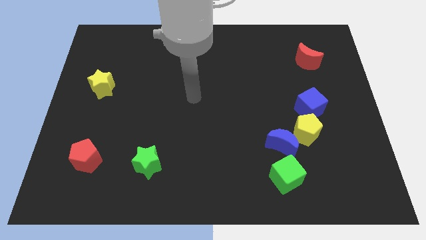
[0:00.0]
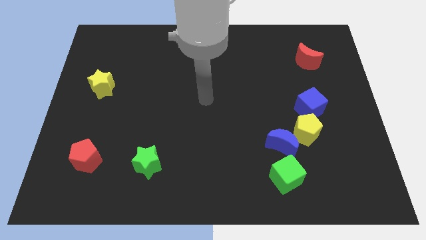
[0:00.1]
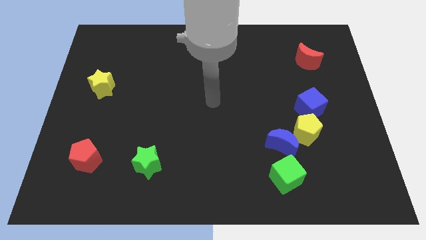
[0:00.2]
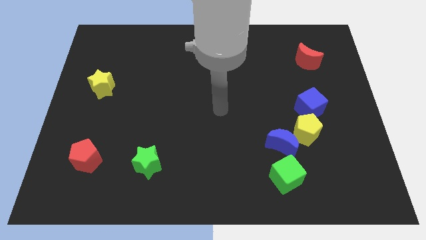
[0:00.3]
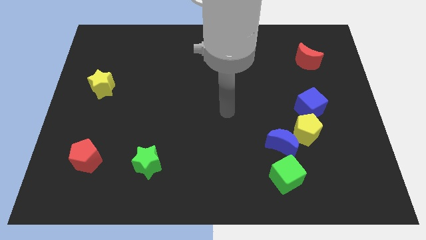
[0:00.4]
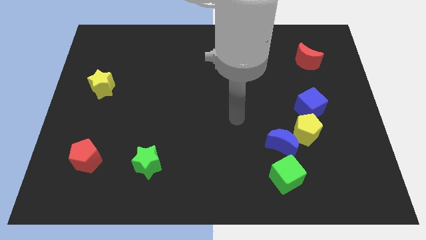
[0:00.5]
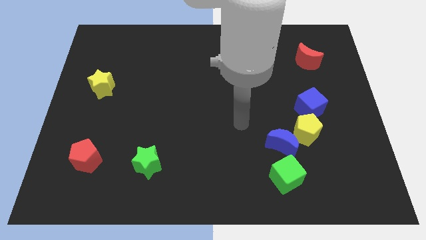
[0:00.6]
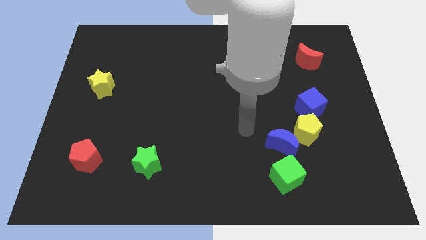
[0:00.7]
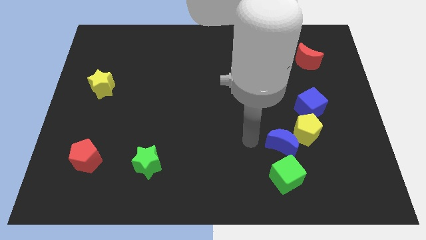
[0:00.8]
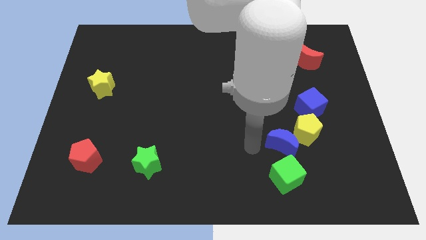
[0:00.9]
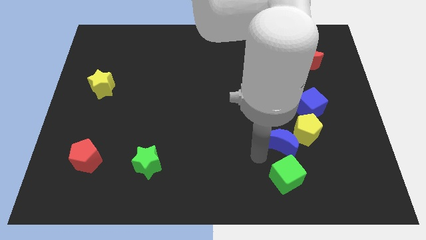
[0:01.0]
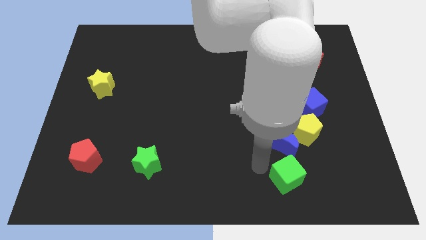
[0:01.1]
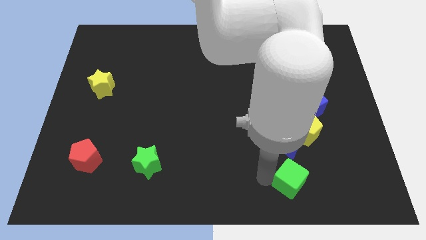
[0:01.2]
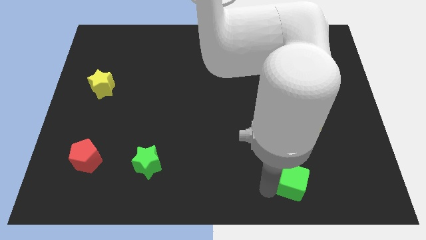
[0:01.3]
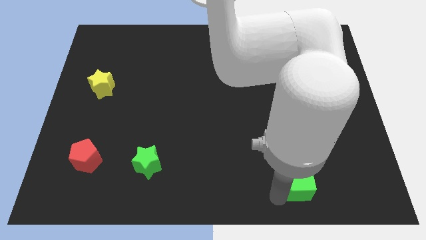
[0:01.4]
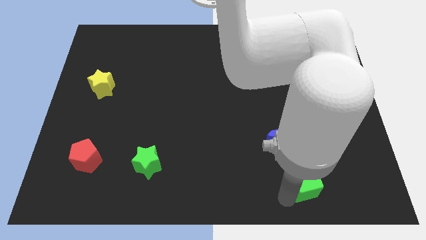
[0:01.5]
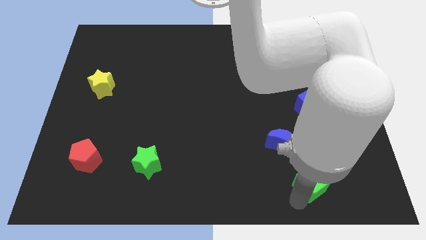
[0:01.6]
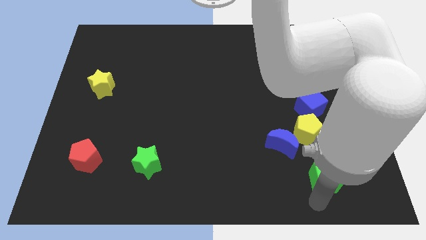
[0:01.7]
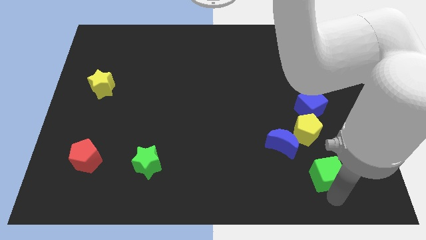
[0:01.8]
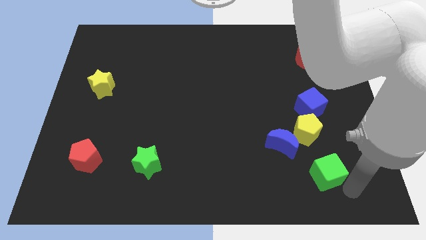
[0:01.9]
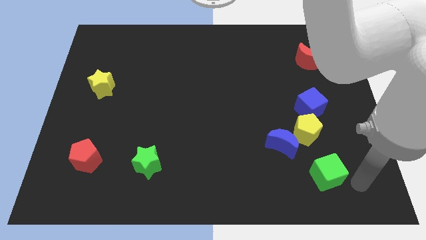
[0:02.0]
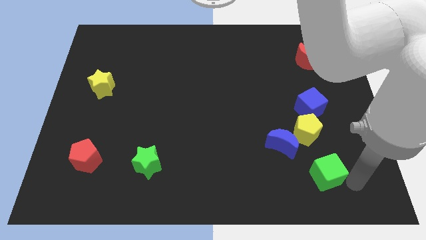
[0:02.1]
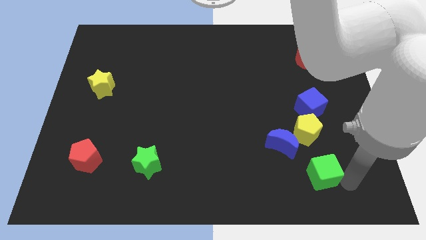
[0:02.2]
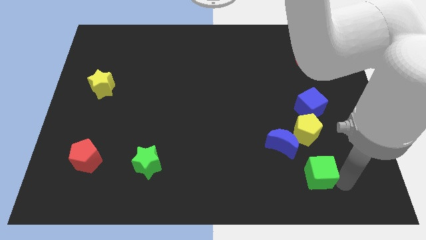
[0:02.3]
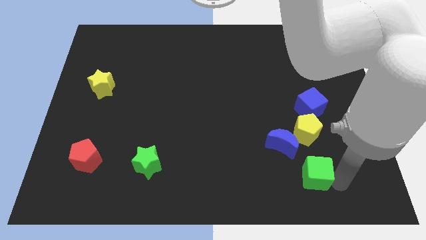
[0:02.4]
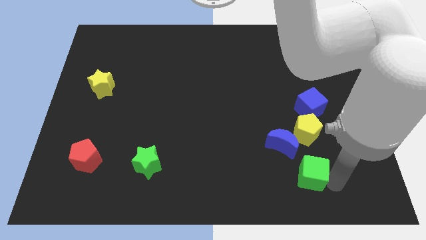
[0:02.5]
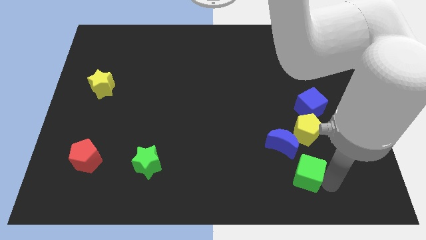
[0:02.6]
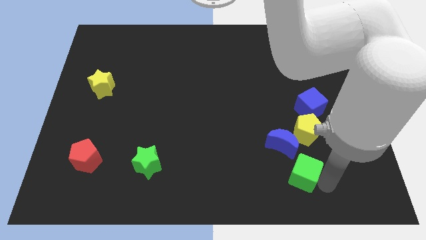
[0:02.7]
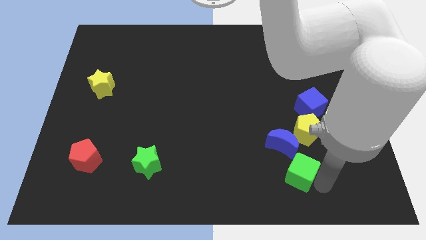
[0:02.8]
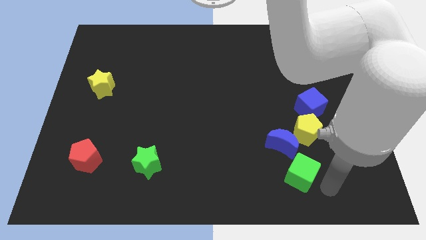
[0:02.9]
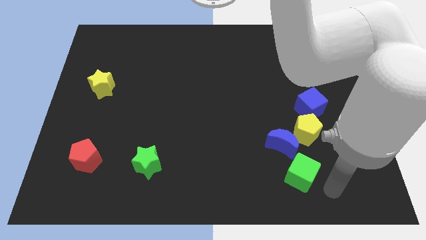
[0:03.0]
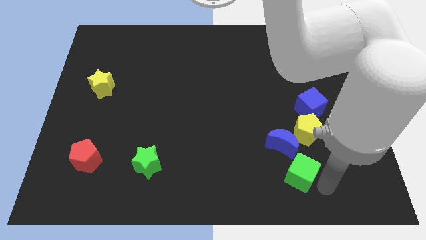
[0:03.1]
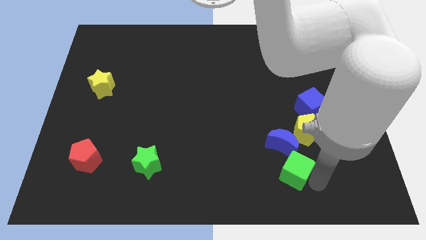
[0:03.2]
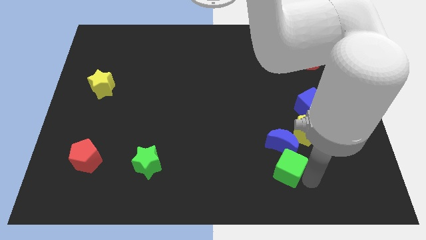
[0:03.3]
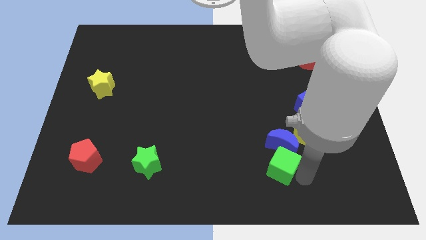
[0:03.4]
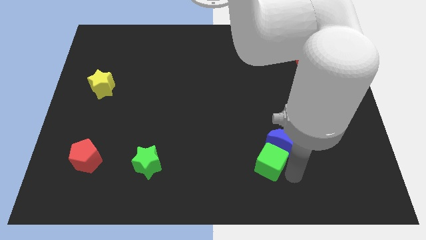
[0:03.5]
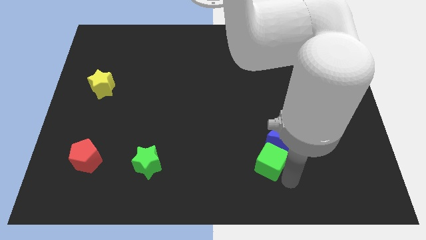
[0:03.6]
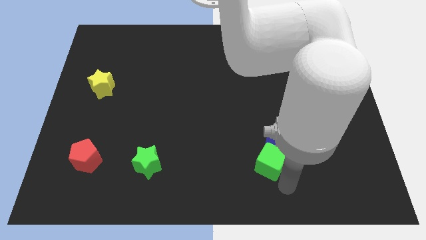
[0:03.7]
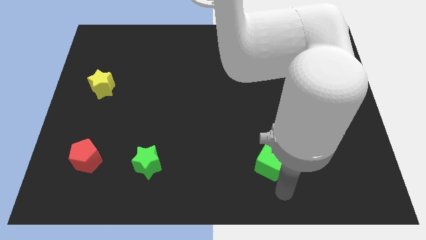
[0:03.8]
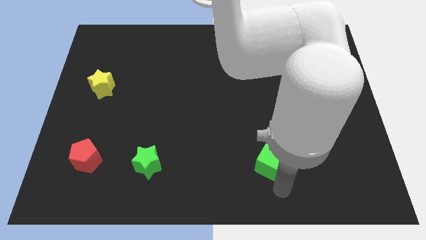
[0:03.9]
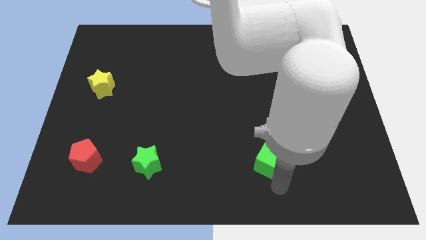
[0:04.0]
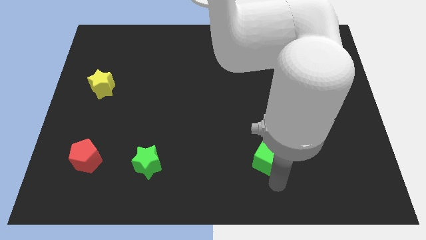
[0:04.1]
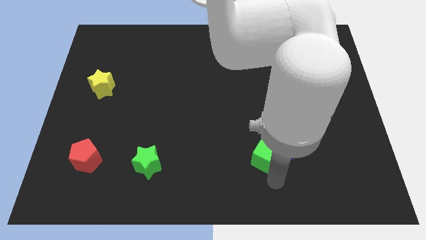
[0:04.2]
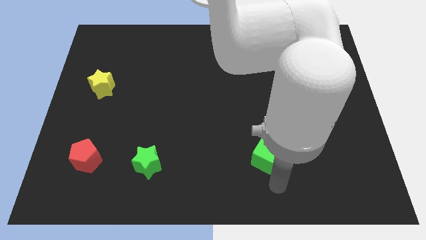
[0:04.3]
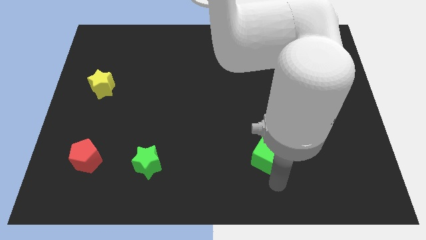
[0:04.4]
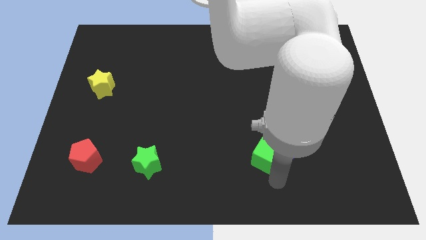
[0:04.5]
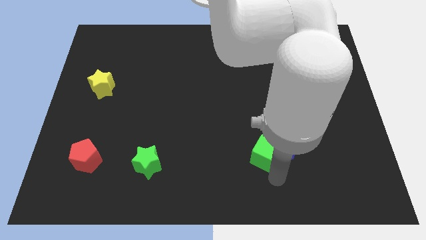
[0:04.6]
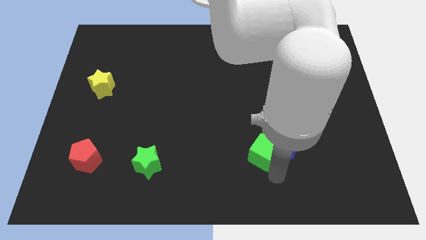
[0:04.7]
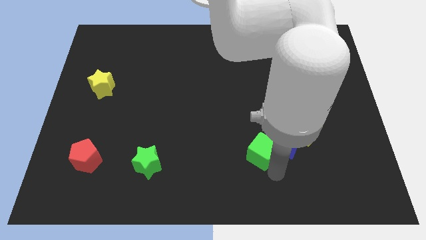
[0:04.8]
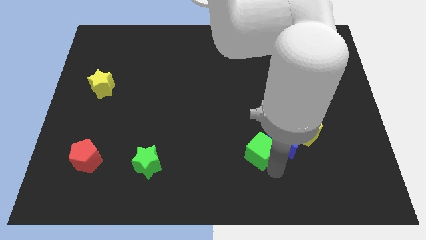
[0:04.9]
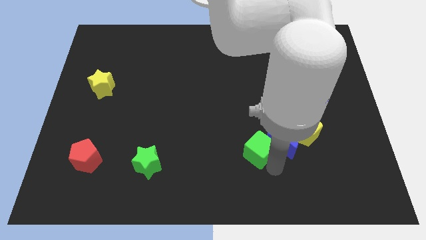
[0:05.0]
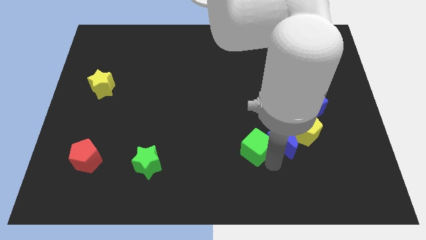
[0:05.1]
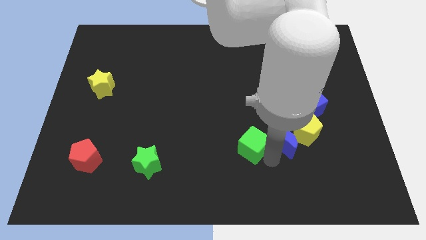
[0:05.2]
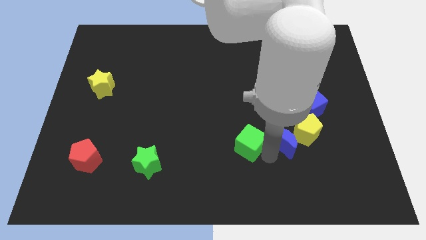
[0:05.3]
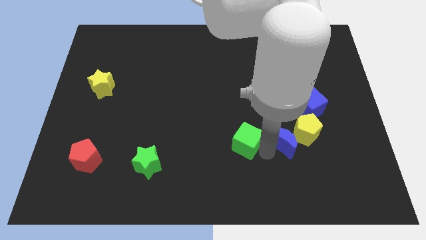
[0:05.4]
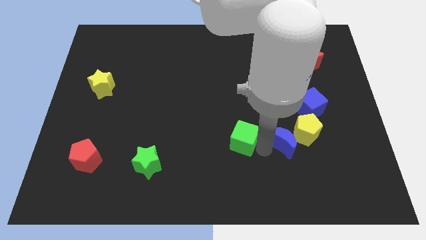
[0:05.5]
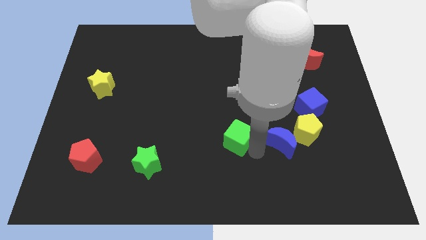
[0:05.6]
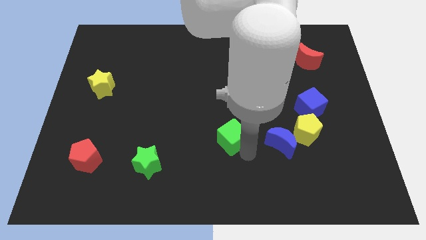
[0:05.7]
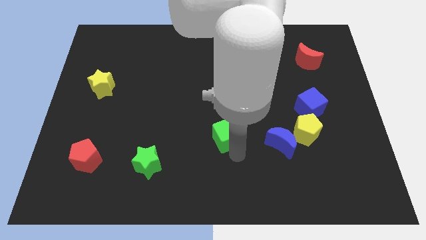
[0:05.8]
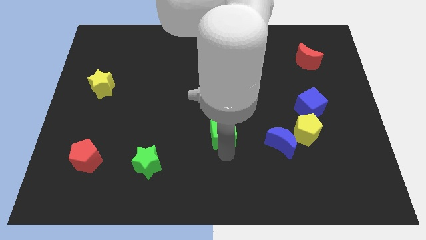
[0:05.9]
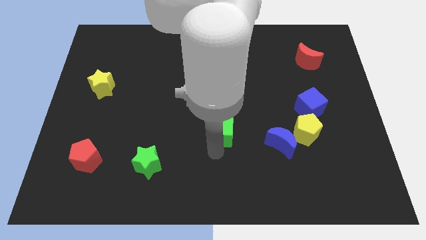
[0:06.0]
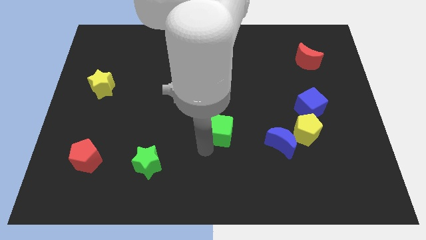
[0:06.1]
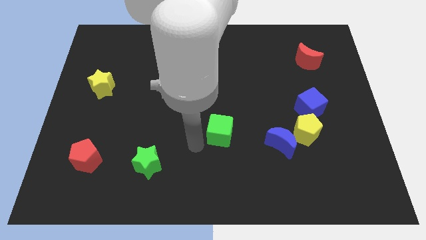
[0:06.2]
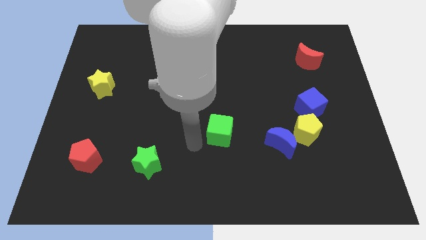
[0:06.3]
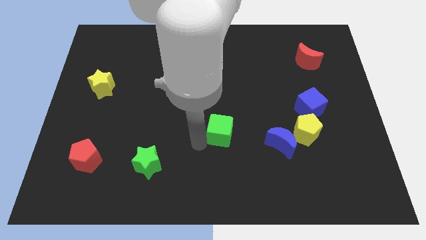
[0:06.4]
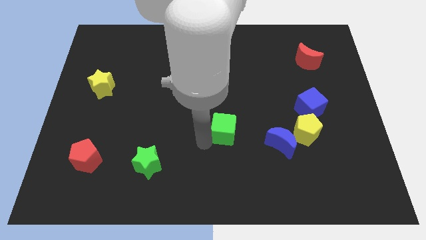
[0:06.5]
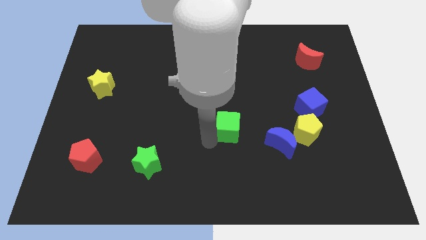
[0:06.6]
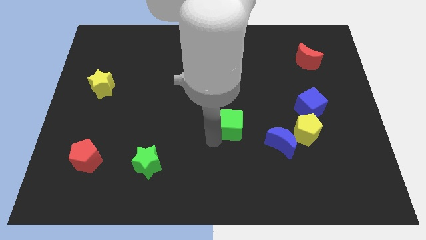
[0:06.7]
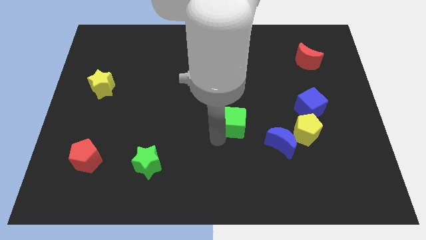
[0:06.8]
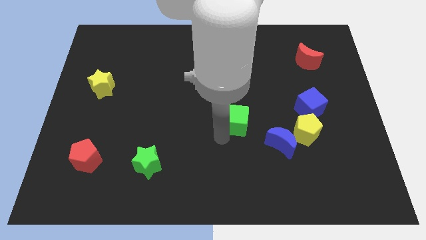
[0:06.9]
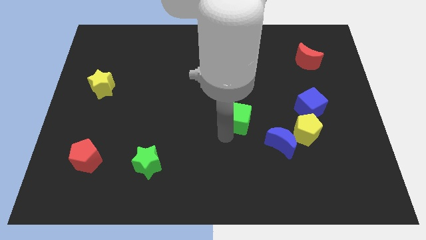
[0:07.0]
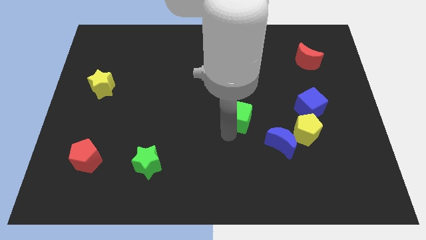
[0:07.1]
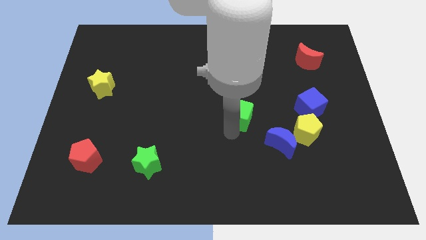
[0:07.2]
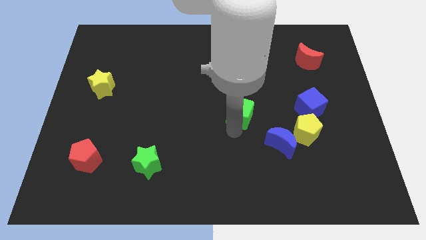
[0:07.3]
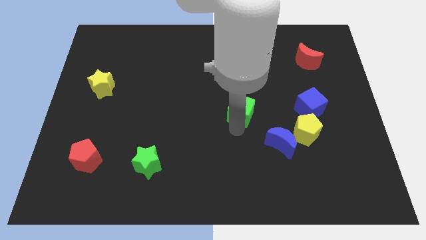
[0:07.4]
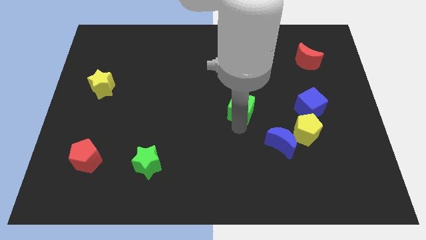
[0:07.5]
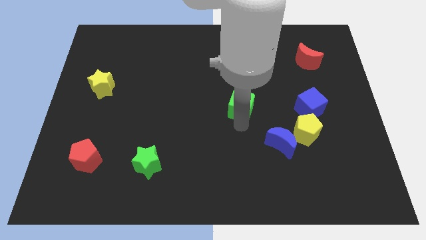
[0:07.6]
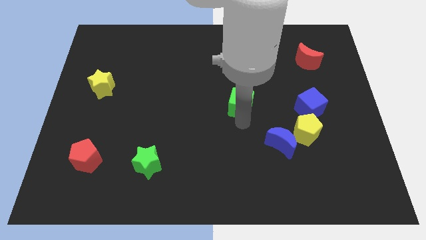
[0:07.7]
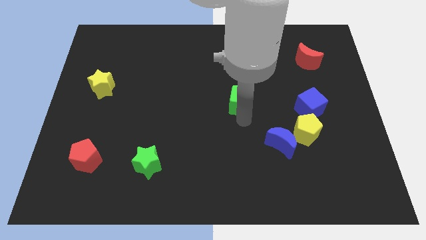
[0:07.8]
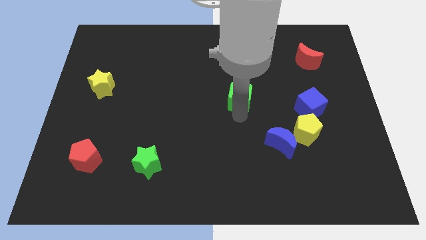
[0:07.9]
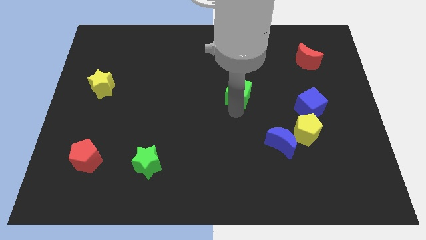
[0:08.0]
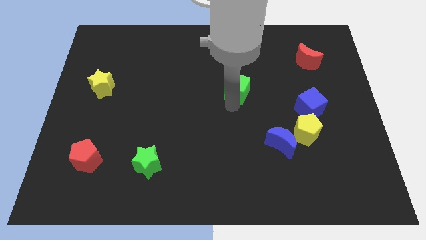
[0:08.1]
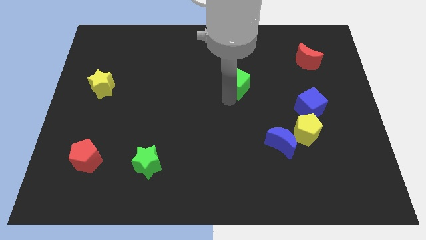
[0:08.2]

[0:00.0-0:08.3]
move the green cube up
